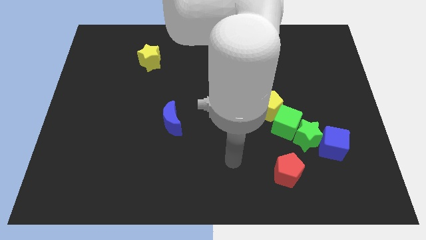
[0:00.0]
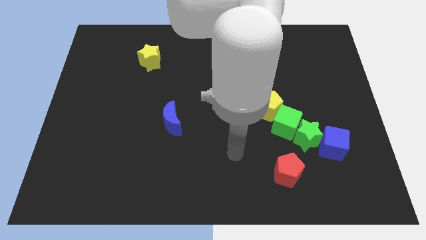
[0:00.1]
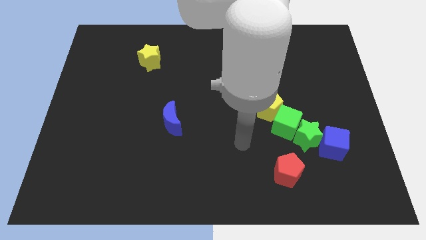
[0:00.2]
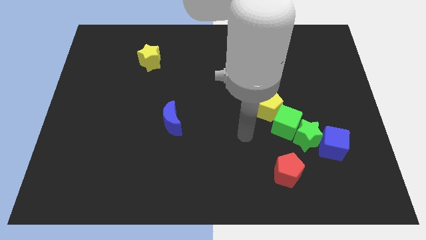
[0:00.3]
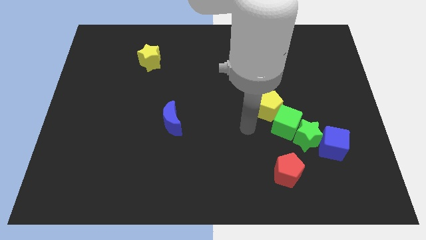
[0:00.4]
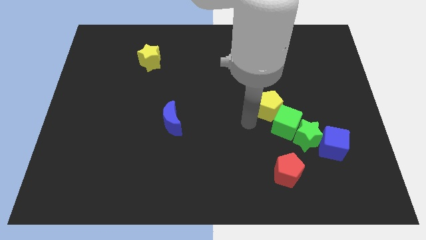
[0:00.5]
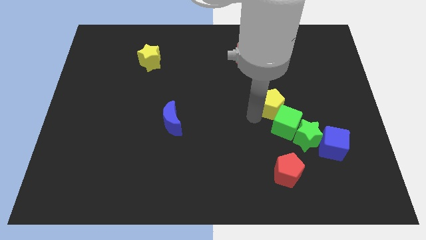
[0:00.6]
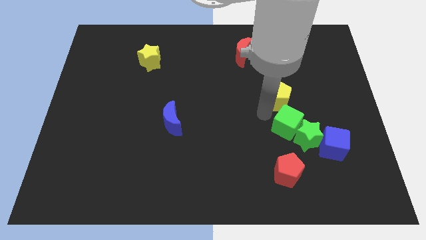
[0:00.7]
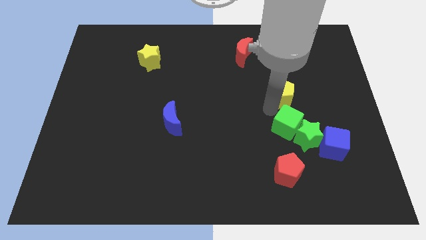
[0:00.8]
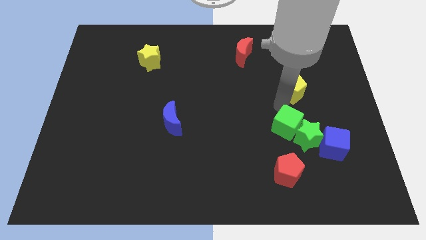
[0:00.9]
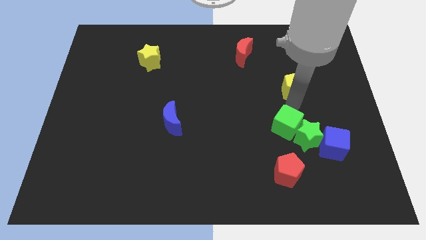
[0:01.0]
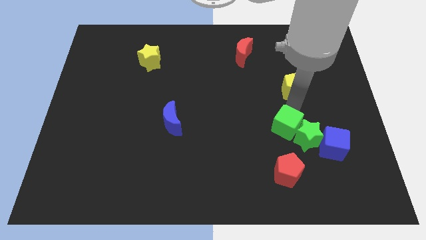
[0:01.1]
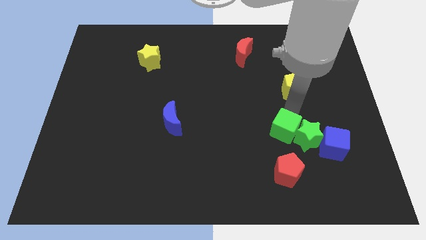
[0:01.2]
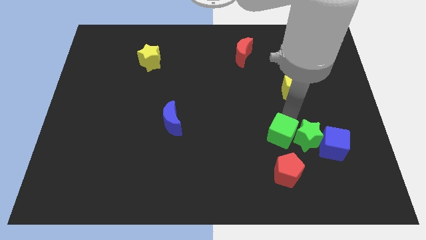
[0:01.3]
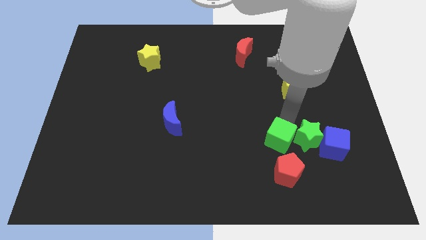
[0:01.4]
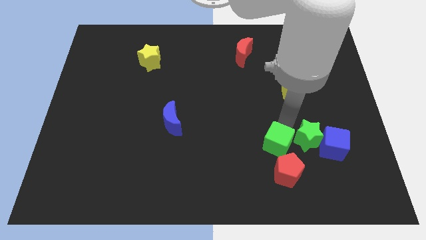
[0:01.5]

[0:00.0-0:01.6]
separate the green cube from the green star and yellow pentagon

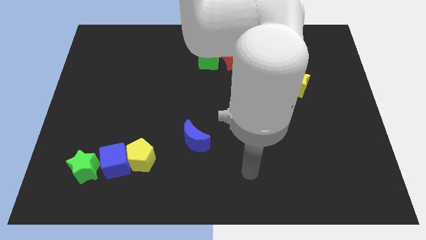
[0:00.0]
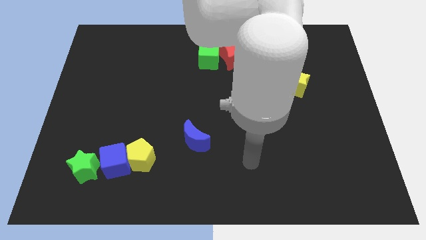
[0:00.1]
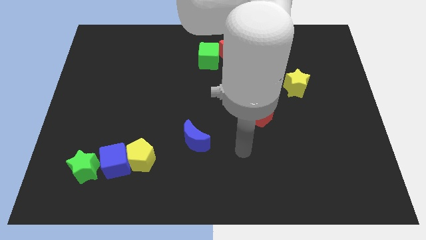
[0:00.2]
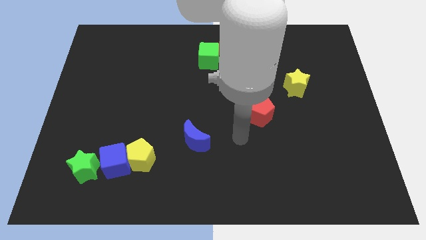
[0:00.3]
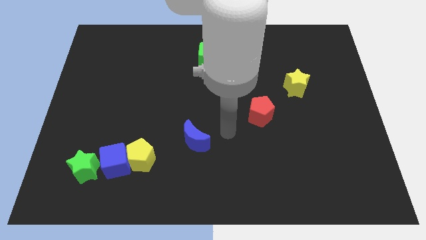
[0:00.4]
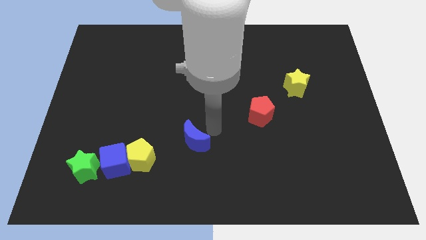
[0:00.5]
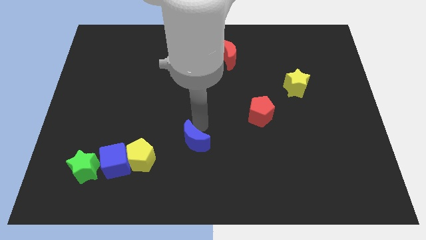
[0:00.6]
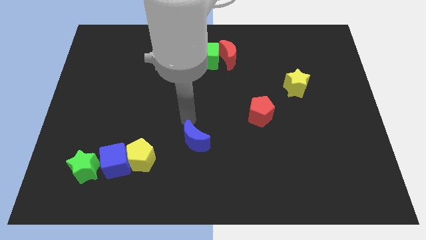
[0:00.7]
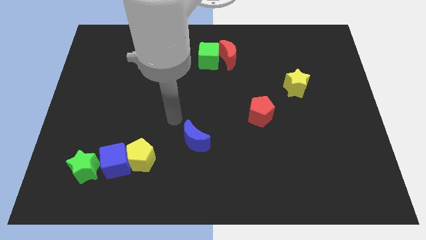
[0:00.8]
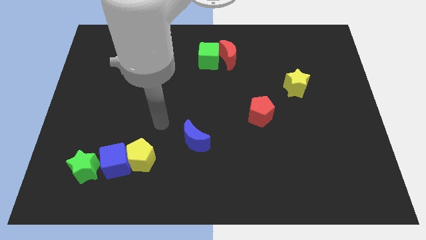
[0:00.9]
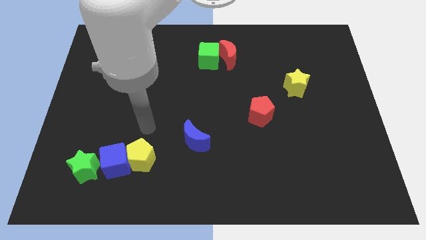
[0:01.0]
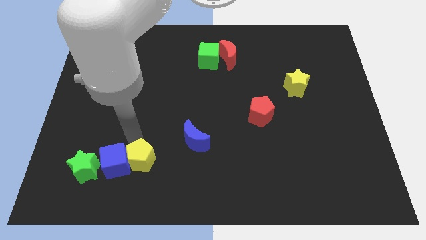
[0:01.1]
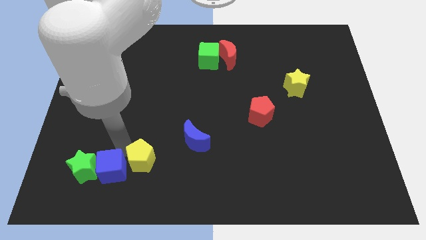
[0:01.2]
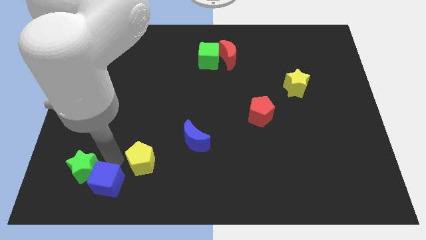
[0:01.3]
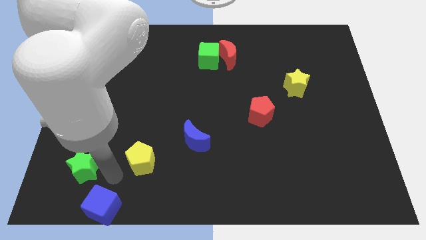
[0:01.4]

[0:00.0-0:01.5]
separate the yellow pentagon from the blue cube

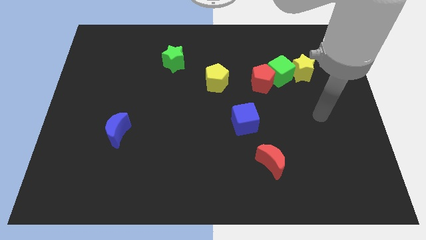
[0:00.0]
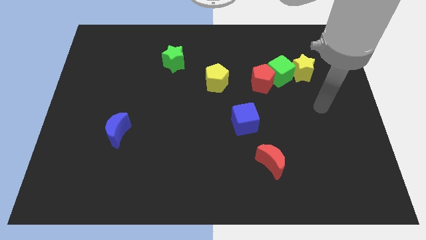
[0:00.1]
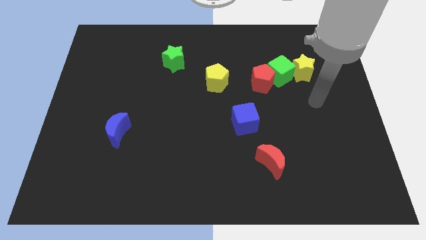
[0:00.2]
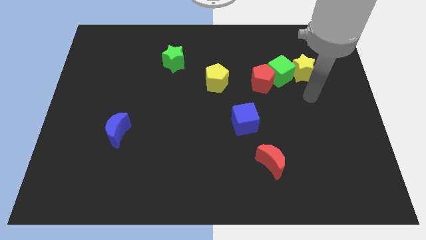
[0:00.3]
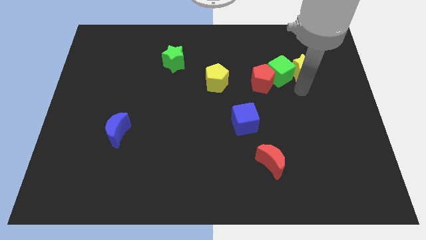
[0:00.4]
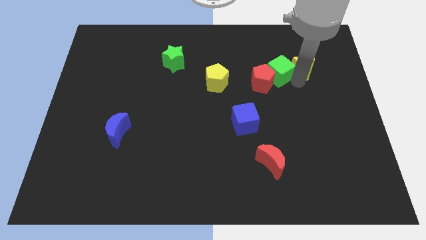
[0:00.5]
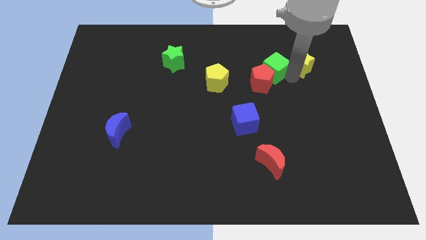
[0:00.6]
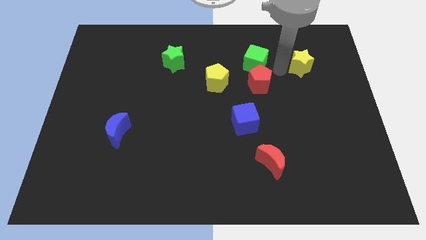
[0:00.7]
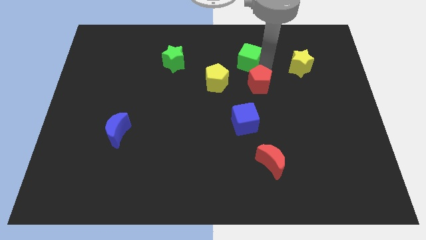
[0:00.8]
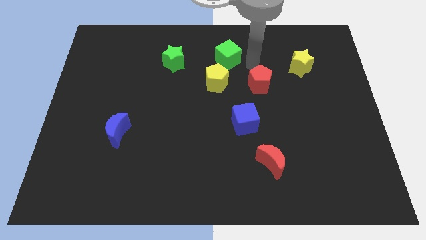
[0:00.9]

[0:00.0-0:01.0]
separate the red pentagon from the green cube

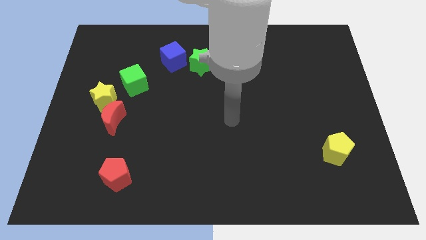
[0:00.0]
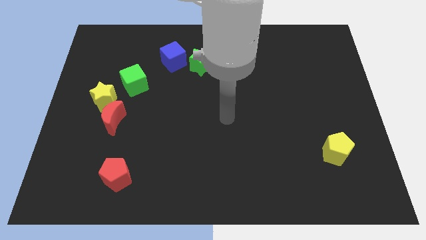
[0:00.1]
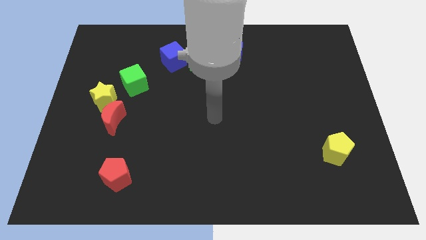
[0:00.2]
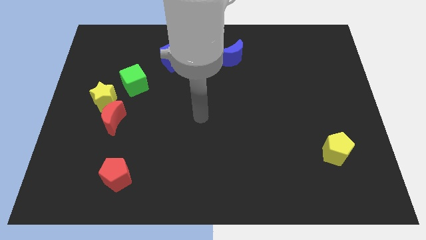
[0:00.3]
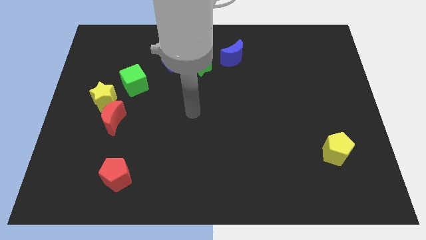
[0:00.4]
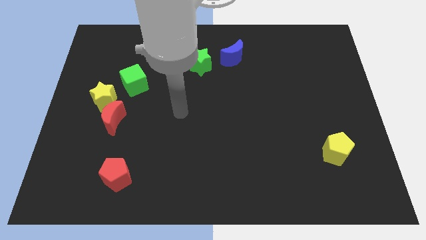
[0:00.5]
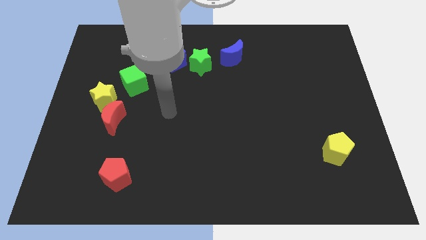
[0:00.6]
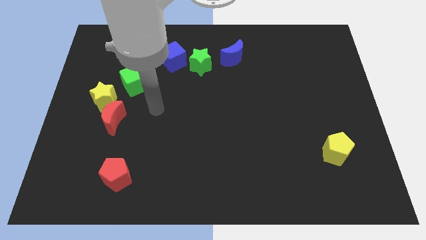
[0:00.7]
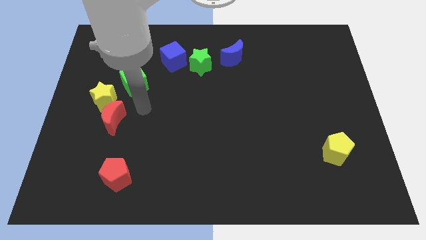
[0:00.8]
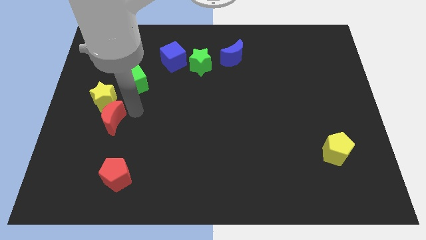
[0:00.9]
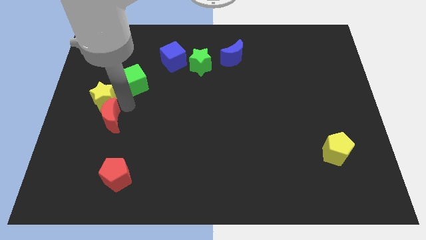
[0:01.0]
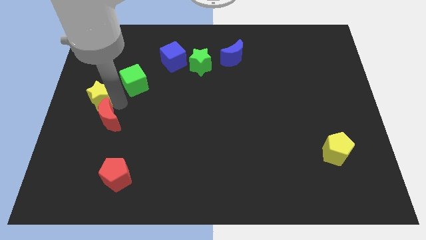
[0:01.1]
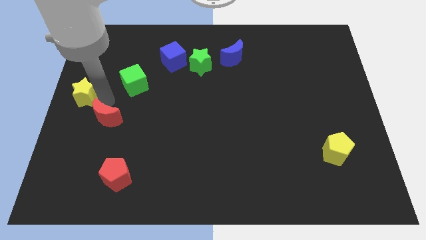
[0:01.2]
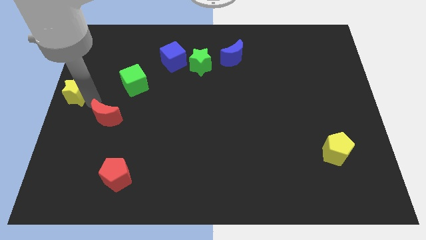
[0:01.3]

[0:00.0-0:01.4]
move the red moon away from the yellow star

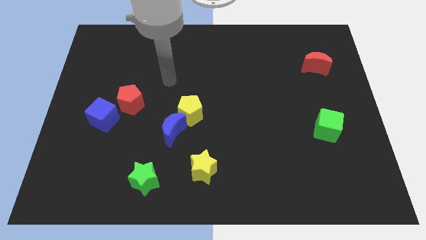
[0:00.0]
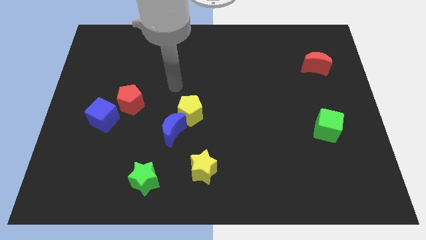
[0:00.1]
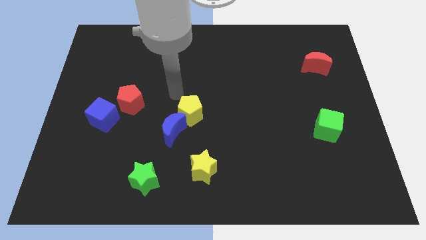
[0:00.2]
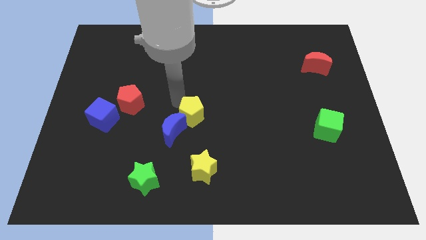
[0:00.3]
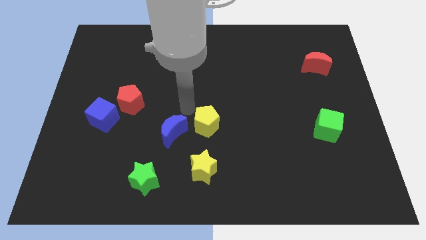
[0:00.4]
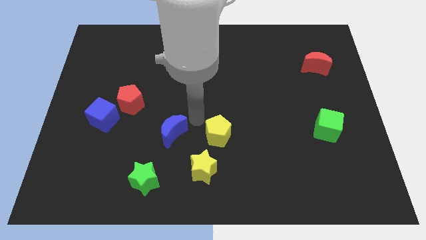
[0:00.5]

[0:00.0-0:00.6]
separate the blue moon from the yellow pentagon

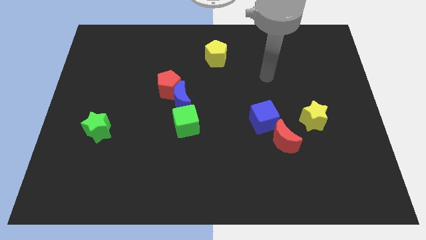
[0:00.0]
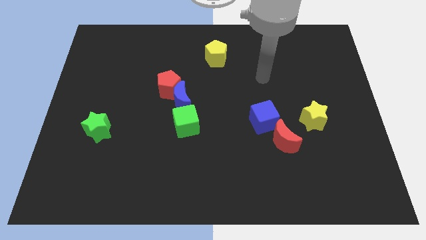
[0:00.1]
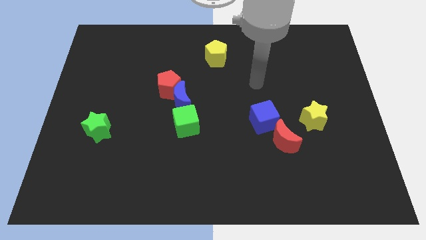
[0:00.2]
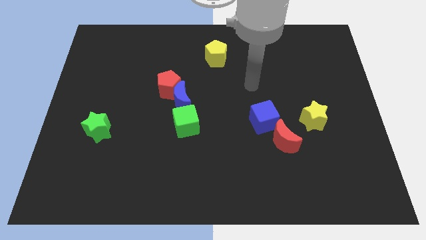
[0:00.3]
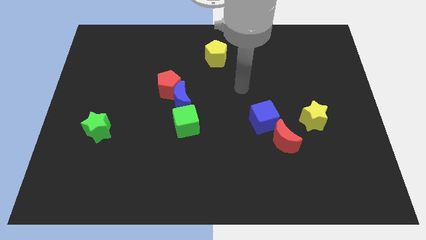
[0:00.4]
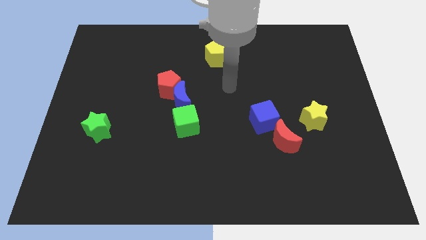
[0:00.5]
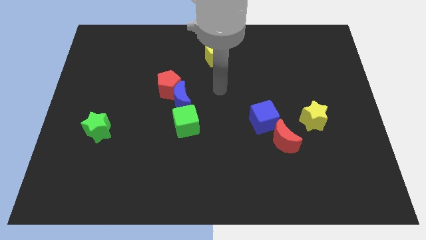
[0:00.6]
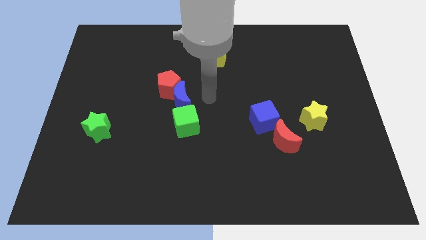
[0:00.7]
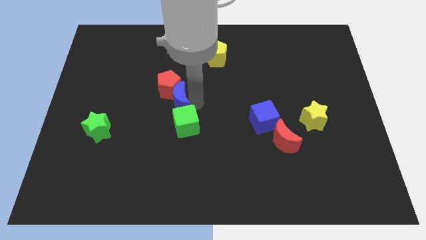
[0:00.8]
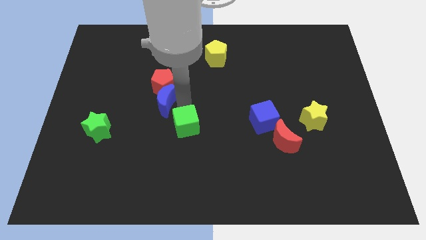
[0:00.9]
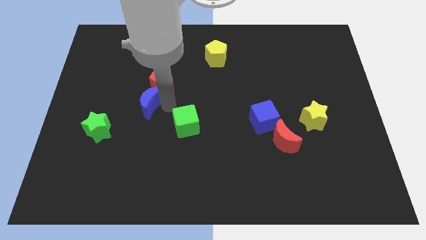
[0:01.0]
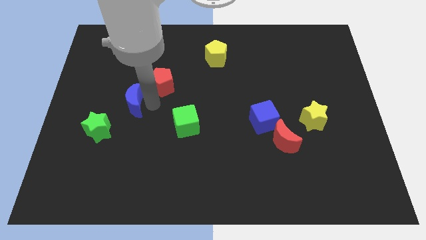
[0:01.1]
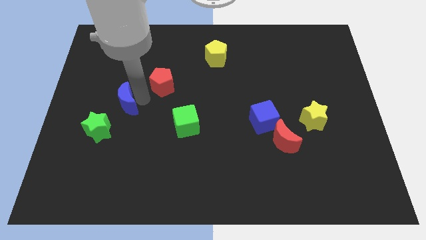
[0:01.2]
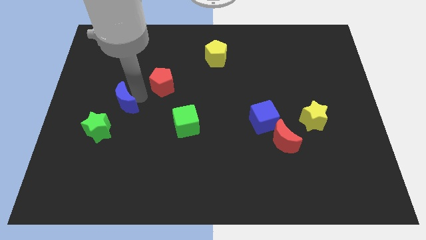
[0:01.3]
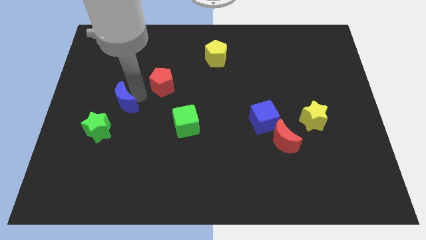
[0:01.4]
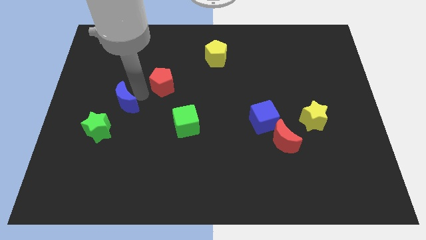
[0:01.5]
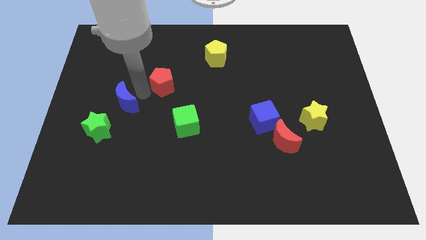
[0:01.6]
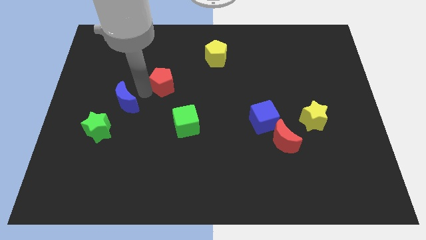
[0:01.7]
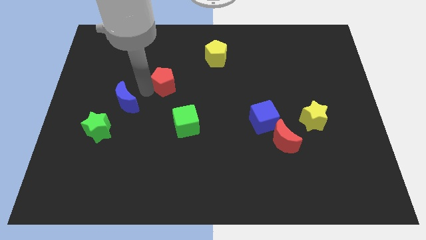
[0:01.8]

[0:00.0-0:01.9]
pull the red pentagon apart from the blue moon

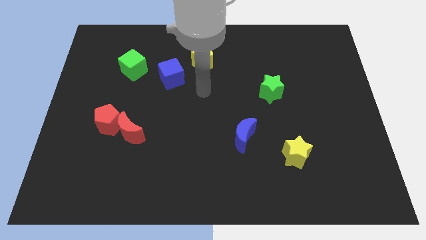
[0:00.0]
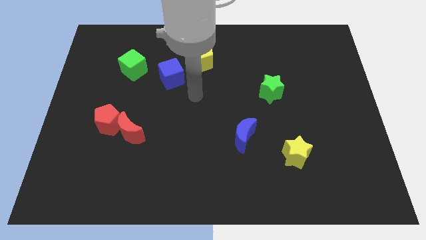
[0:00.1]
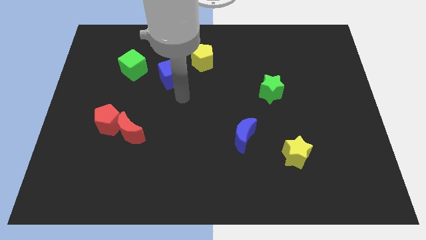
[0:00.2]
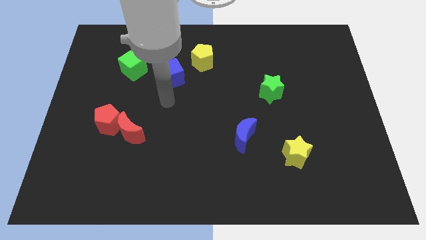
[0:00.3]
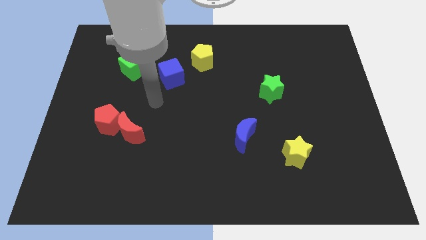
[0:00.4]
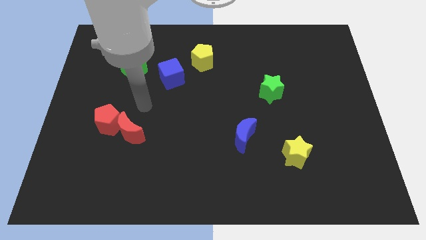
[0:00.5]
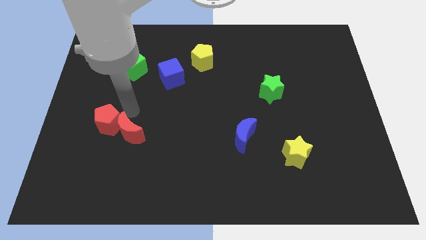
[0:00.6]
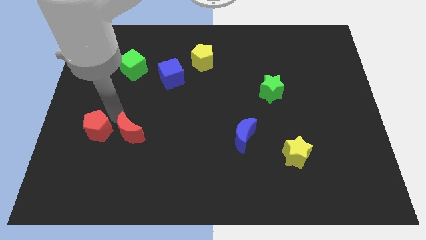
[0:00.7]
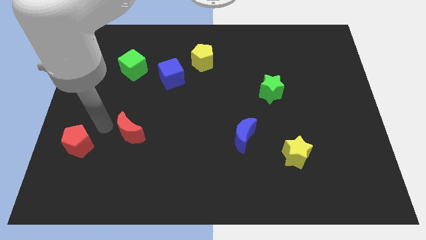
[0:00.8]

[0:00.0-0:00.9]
pull the red moon apart from the red pentagon

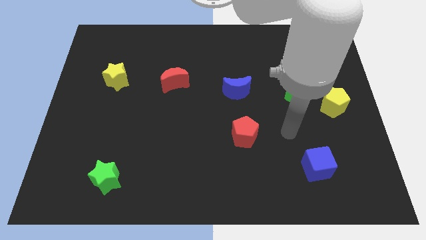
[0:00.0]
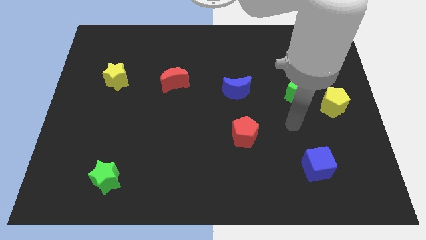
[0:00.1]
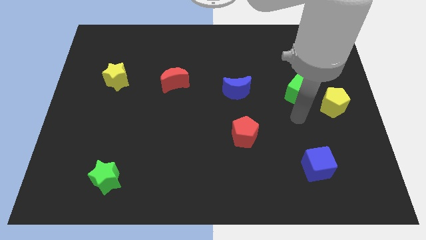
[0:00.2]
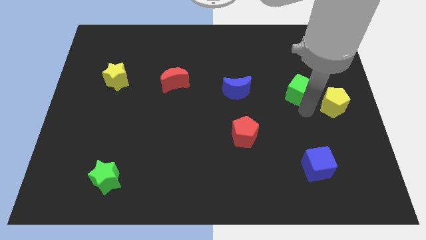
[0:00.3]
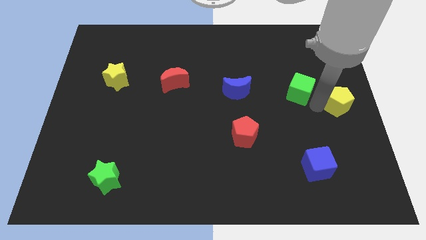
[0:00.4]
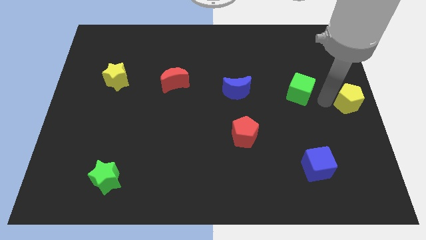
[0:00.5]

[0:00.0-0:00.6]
separate the green cube from the yellow pentagon
